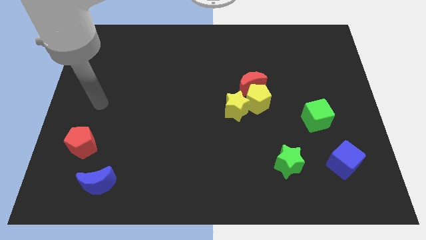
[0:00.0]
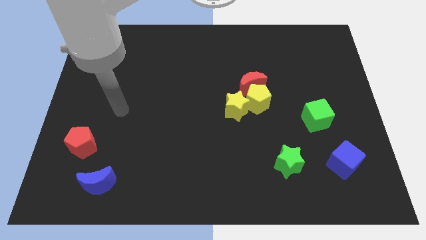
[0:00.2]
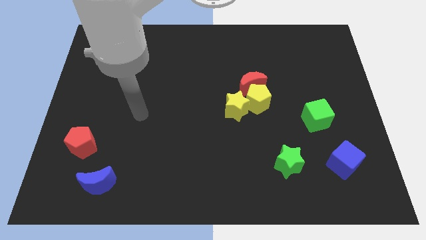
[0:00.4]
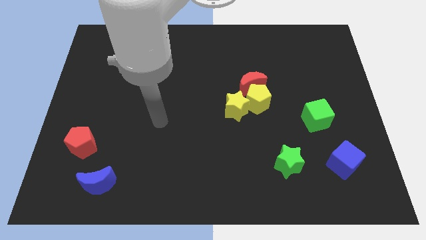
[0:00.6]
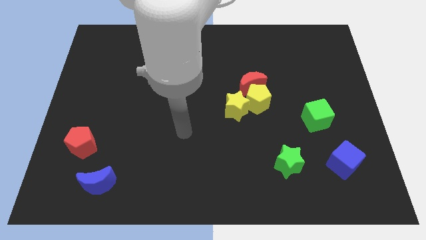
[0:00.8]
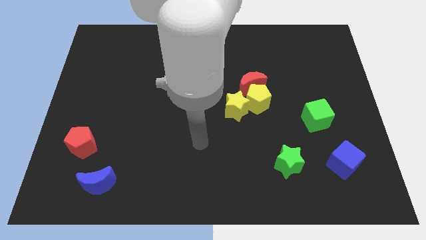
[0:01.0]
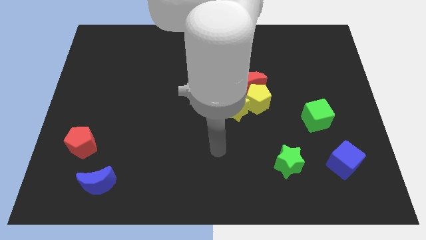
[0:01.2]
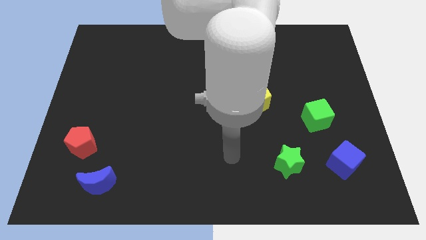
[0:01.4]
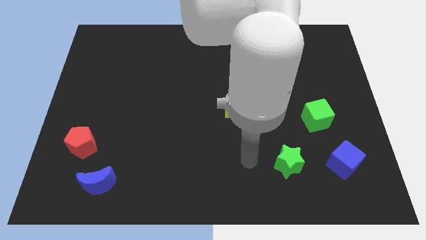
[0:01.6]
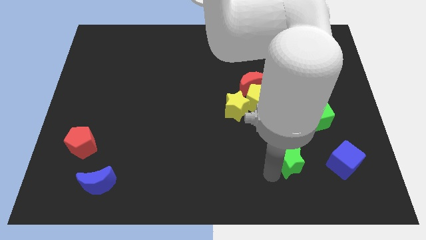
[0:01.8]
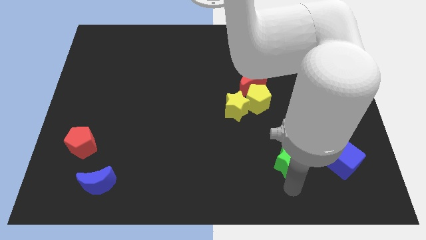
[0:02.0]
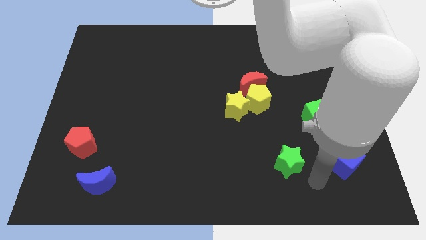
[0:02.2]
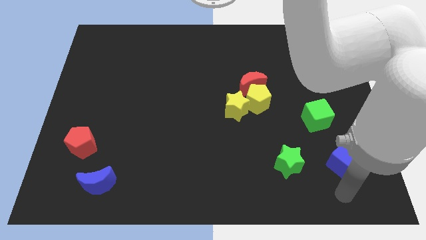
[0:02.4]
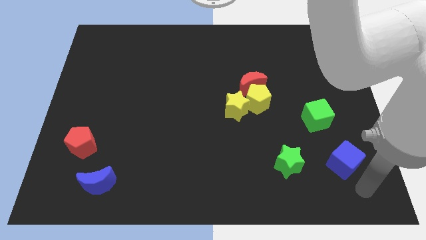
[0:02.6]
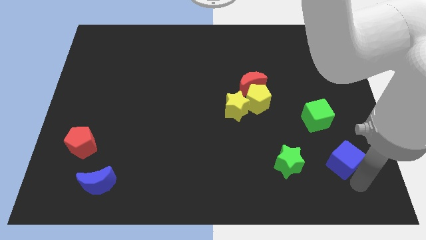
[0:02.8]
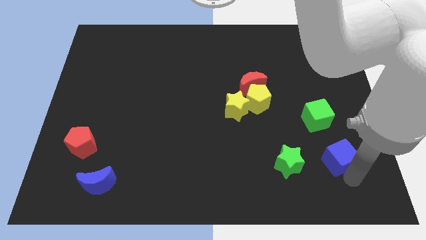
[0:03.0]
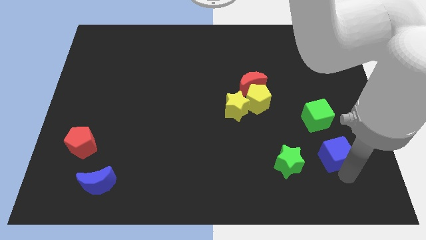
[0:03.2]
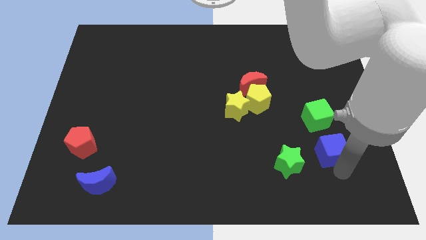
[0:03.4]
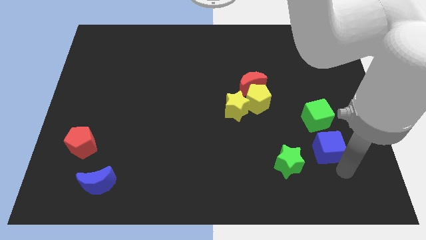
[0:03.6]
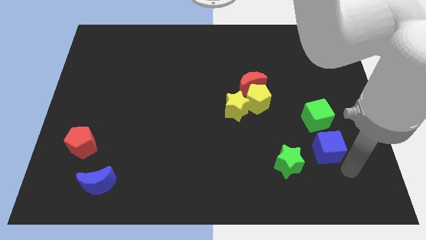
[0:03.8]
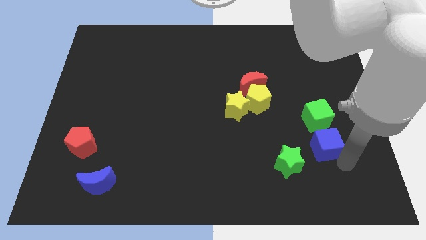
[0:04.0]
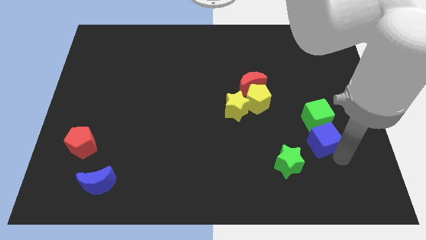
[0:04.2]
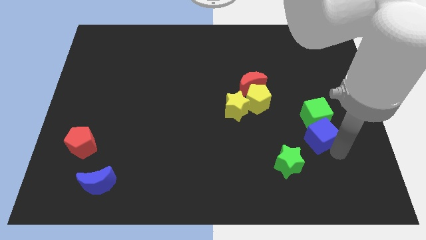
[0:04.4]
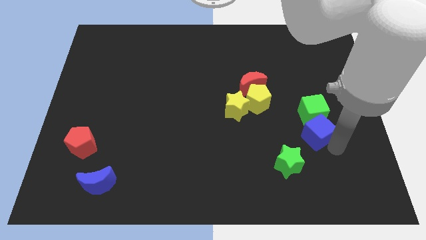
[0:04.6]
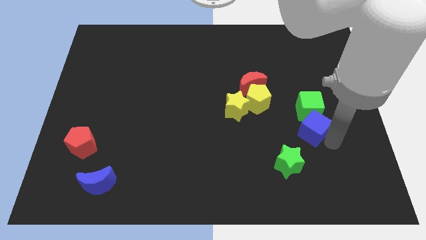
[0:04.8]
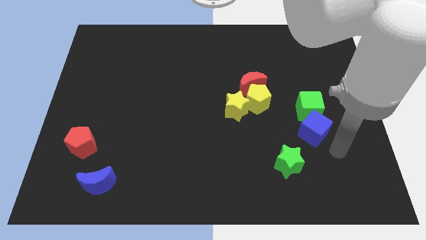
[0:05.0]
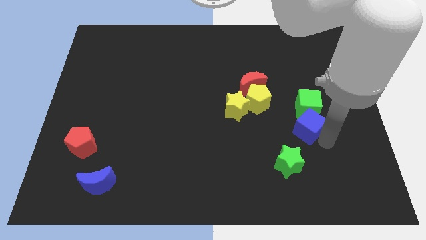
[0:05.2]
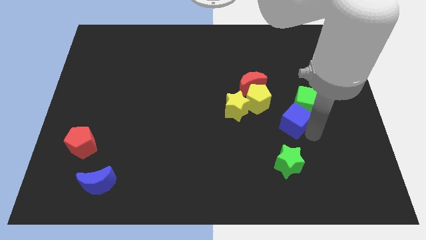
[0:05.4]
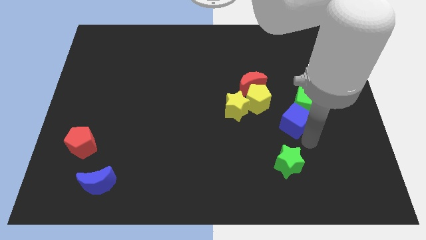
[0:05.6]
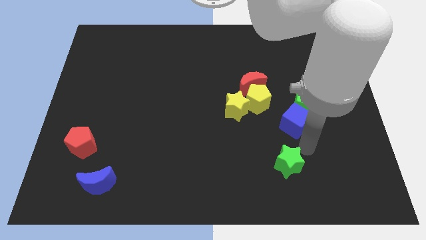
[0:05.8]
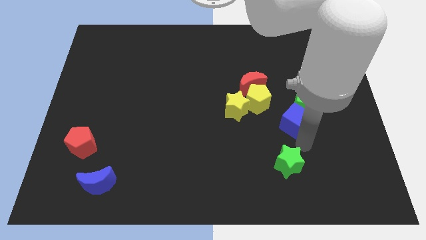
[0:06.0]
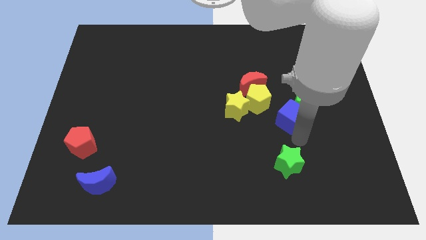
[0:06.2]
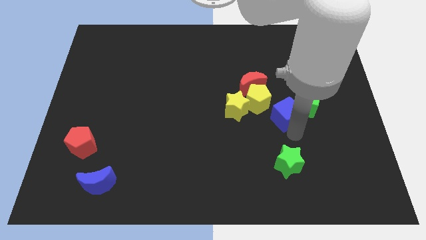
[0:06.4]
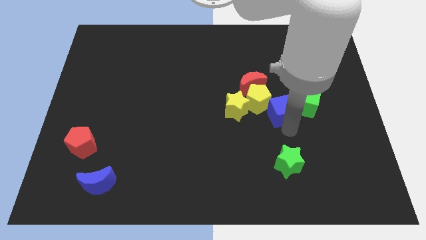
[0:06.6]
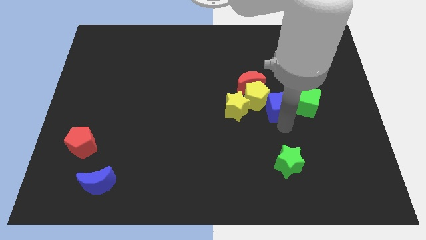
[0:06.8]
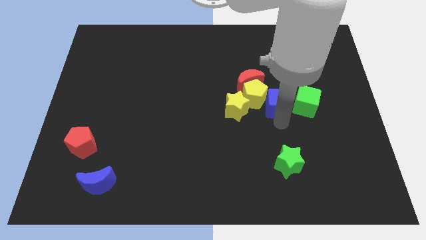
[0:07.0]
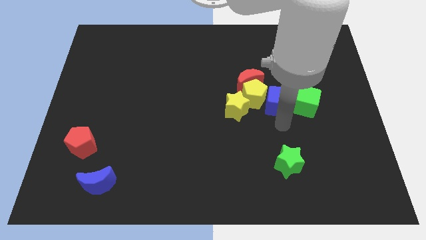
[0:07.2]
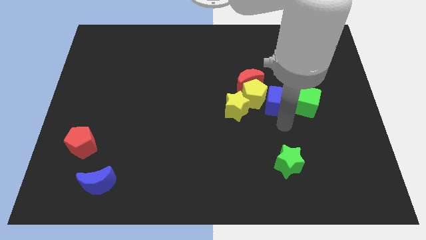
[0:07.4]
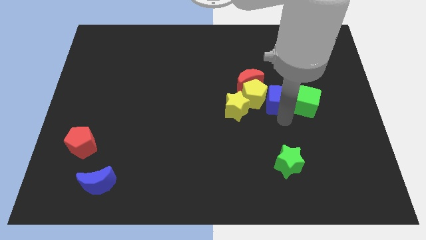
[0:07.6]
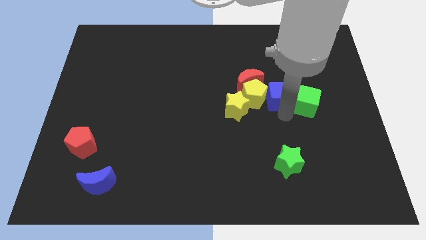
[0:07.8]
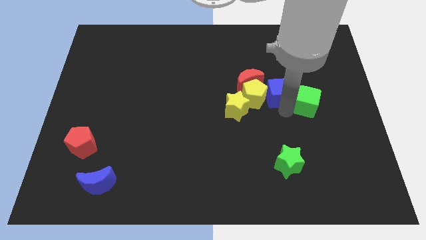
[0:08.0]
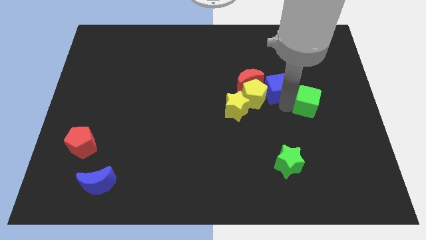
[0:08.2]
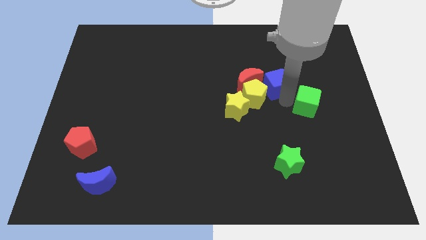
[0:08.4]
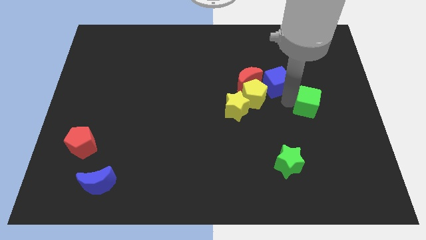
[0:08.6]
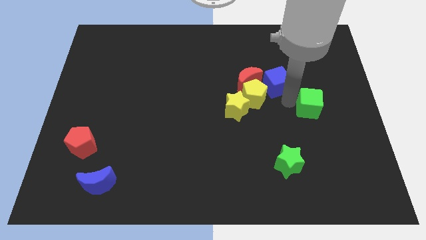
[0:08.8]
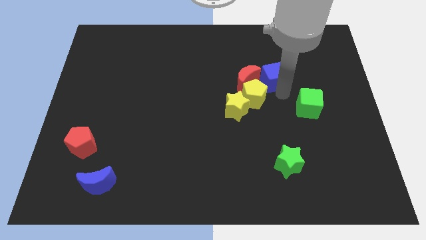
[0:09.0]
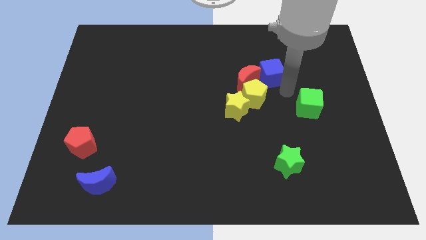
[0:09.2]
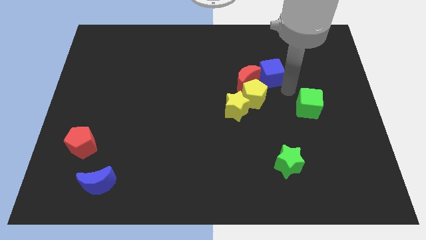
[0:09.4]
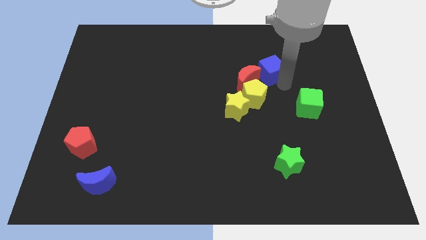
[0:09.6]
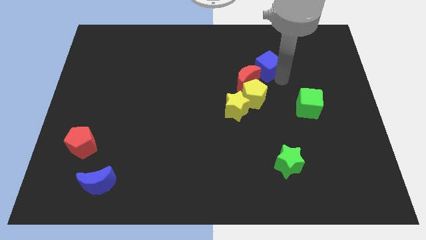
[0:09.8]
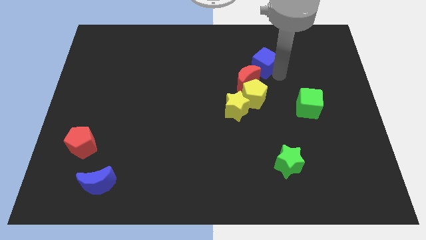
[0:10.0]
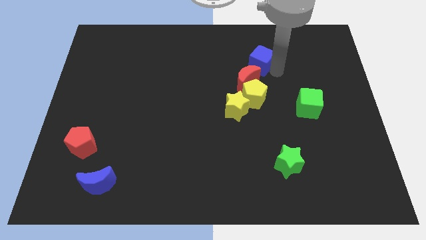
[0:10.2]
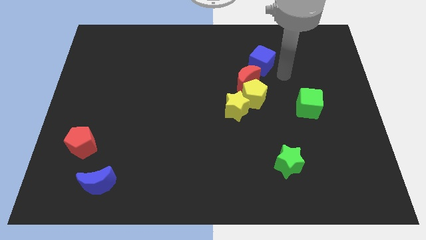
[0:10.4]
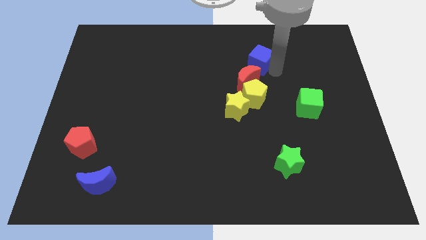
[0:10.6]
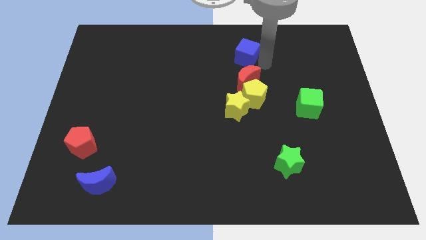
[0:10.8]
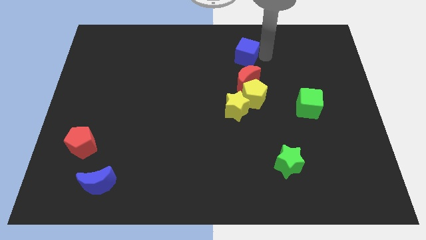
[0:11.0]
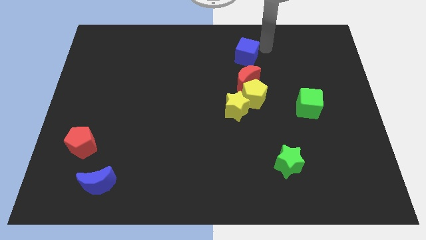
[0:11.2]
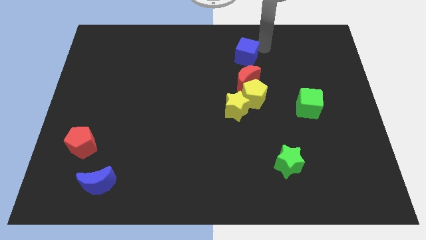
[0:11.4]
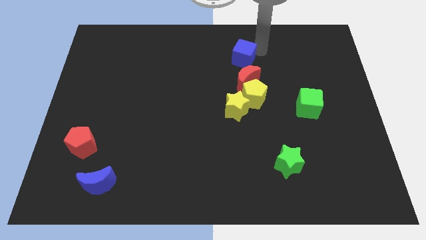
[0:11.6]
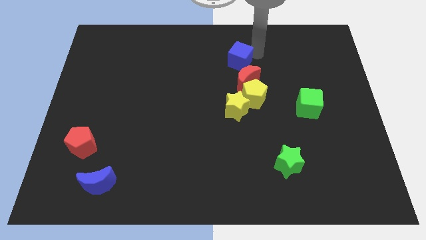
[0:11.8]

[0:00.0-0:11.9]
push the blue cube to the top left side of the red moon

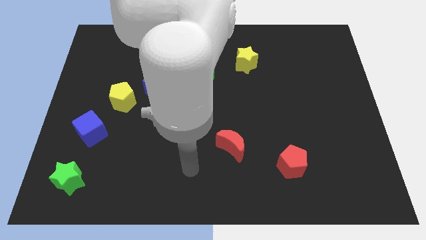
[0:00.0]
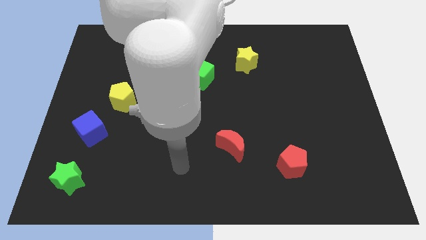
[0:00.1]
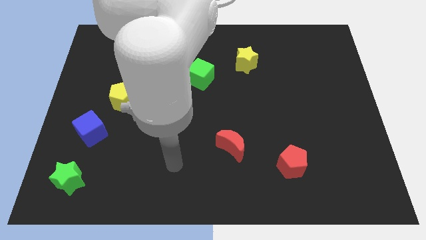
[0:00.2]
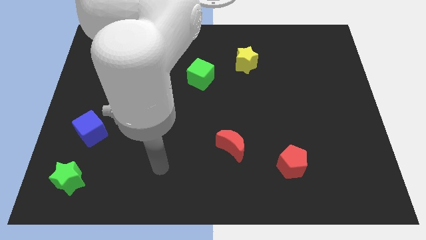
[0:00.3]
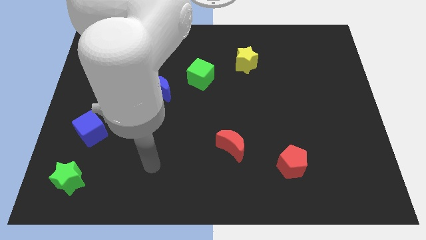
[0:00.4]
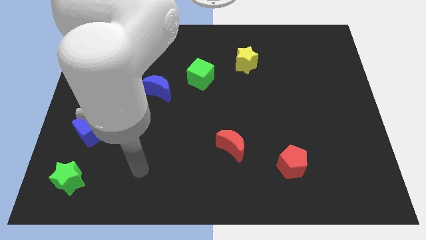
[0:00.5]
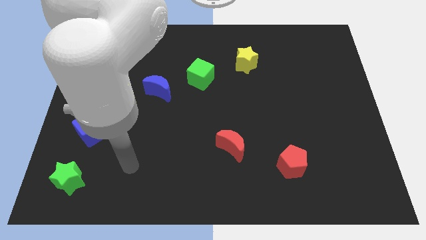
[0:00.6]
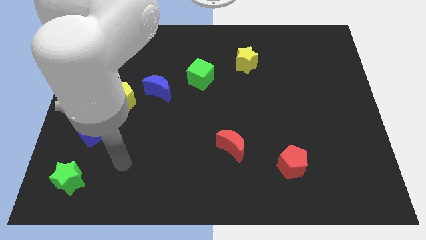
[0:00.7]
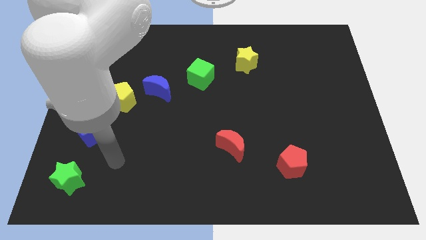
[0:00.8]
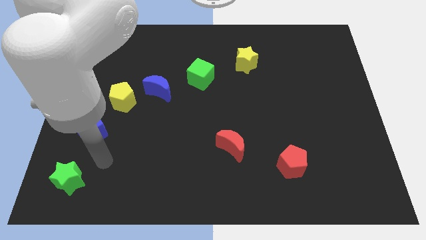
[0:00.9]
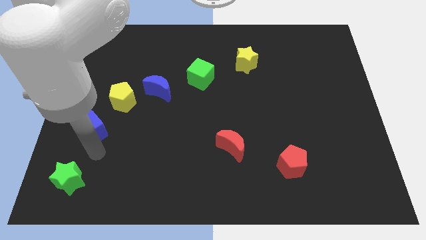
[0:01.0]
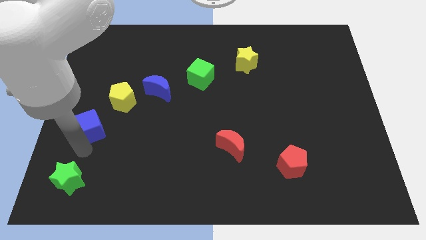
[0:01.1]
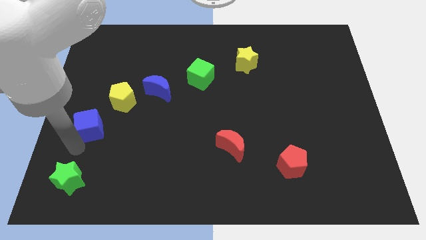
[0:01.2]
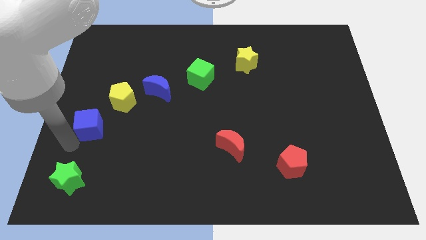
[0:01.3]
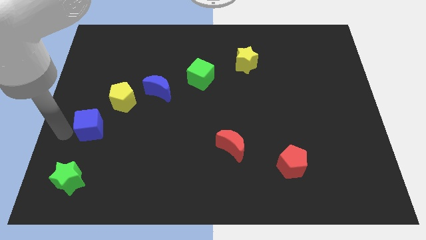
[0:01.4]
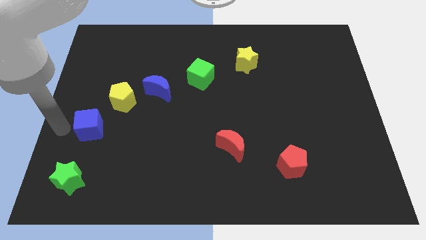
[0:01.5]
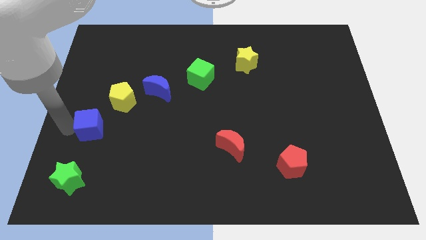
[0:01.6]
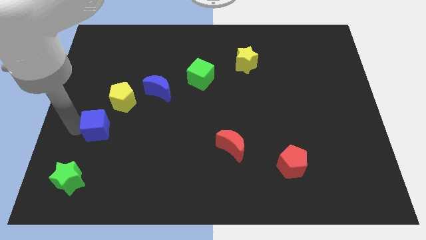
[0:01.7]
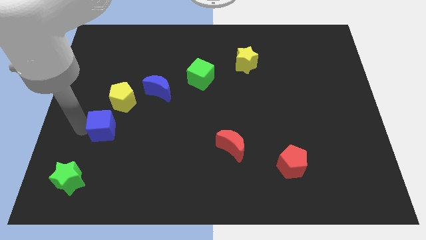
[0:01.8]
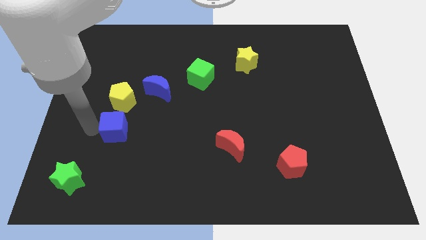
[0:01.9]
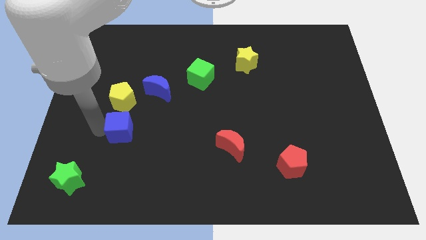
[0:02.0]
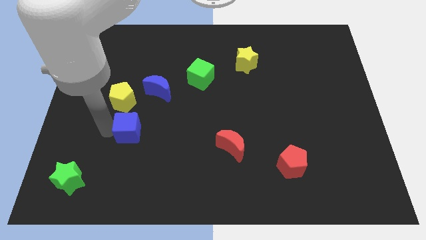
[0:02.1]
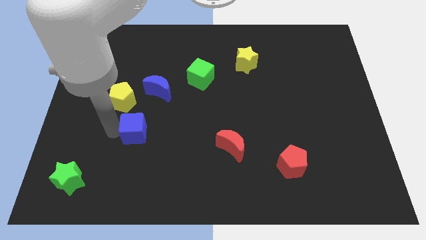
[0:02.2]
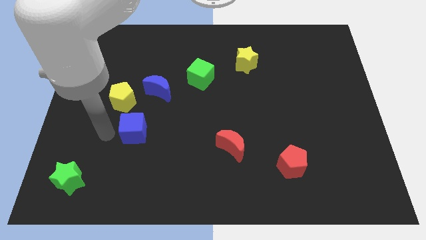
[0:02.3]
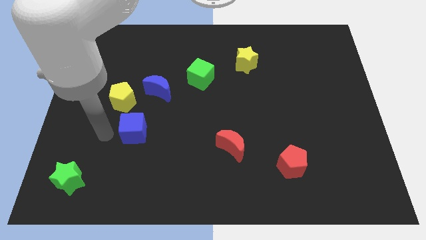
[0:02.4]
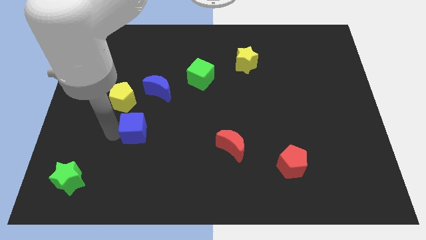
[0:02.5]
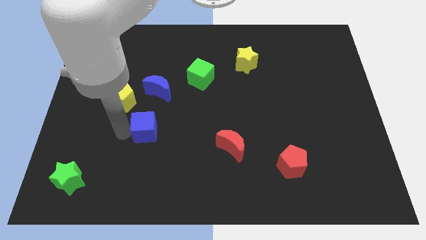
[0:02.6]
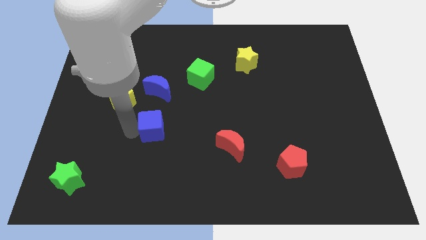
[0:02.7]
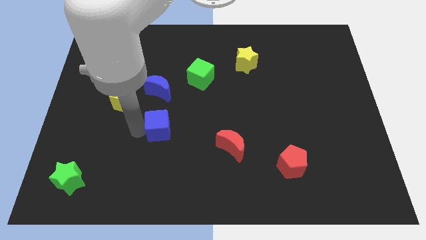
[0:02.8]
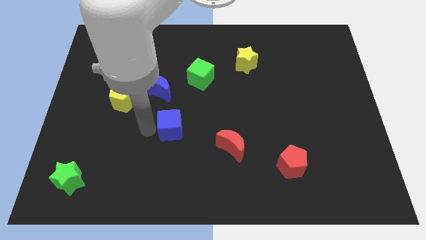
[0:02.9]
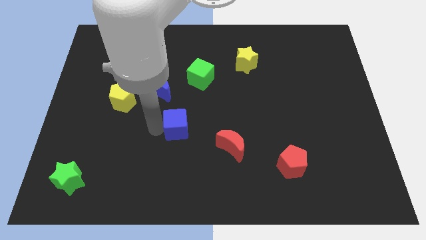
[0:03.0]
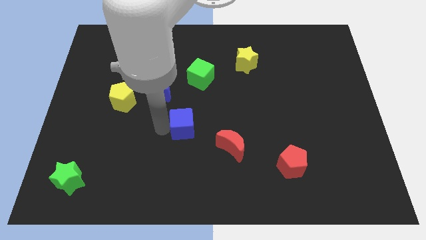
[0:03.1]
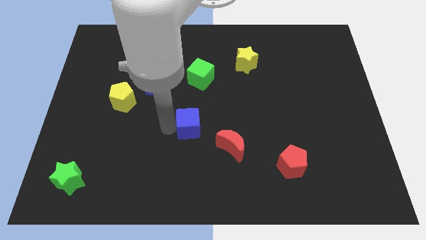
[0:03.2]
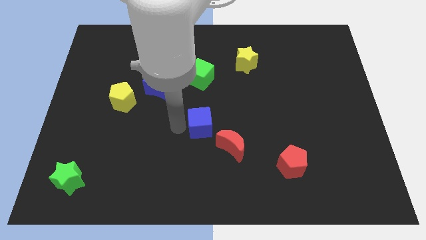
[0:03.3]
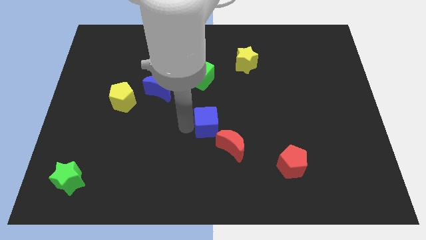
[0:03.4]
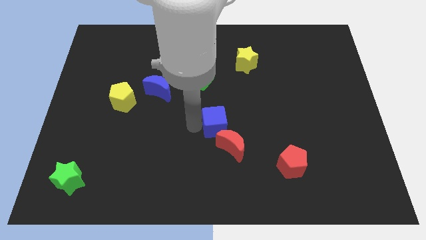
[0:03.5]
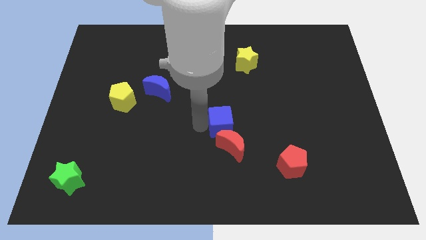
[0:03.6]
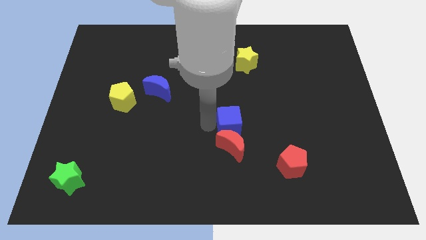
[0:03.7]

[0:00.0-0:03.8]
push the blue cube diagonally up and to the right of the red moon
